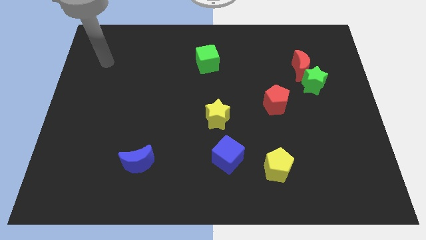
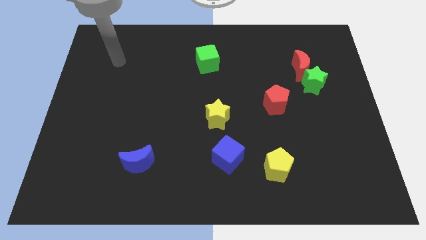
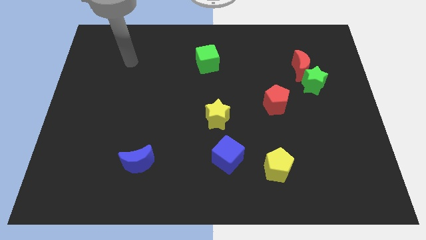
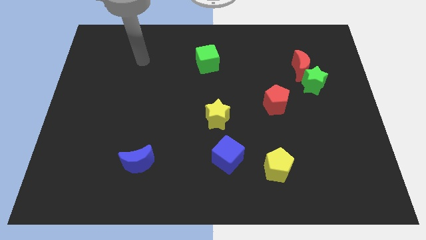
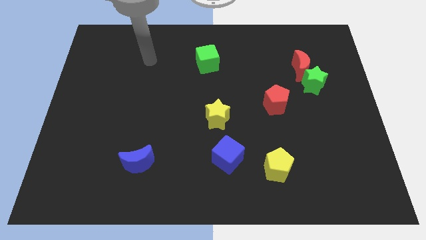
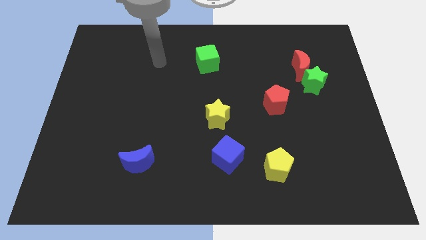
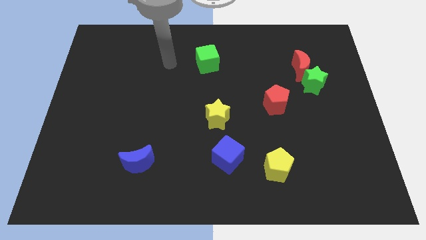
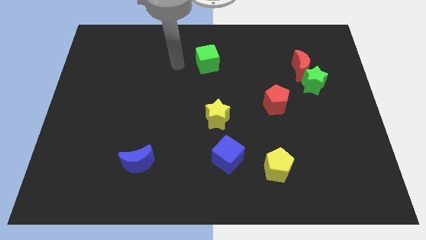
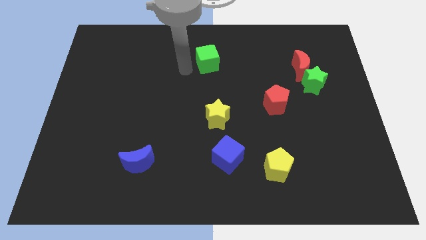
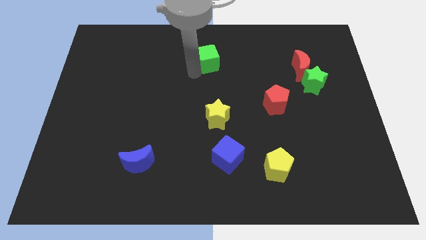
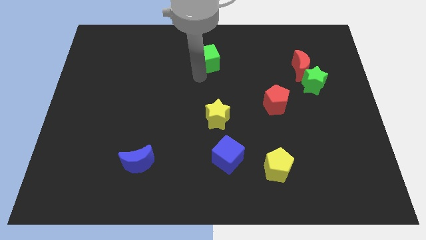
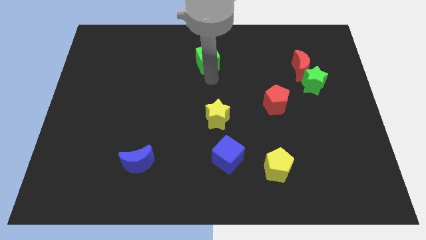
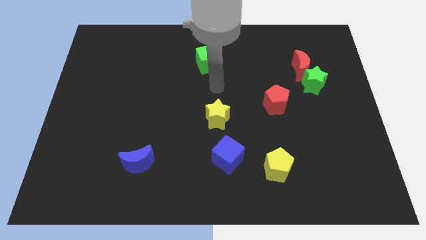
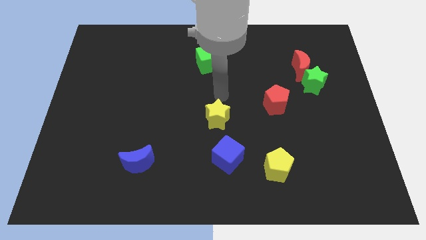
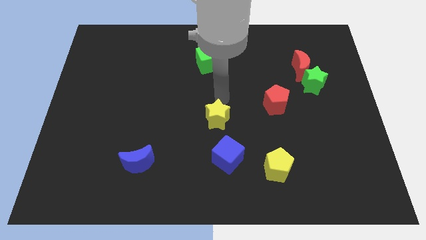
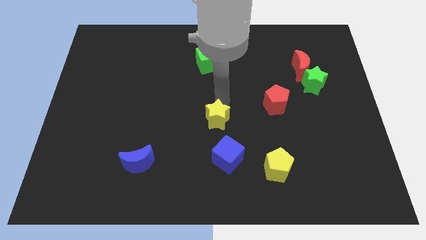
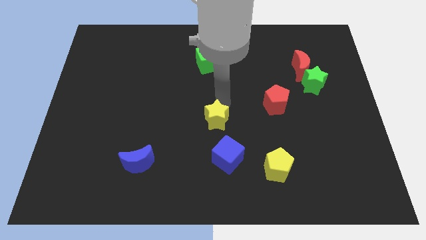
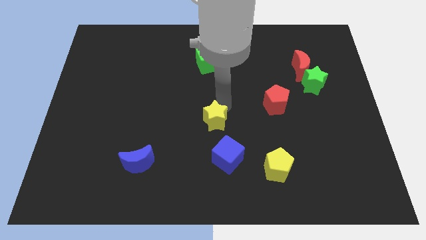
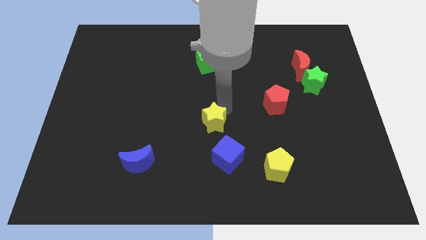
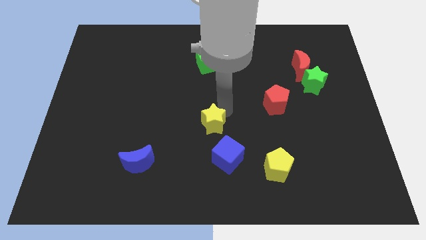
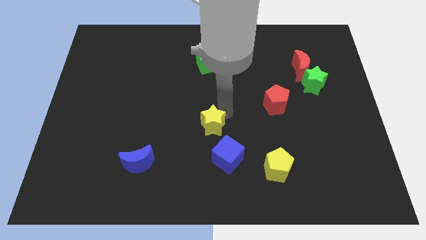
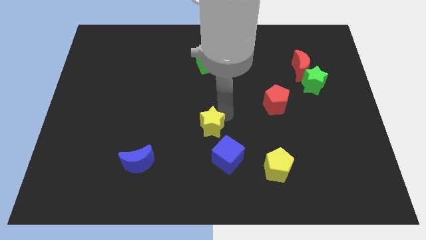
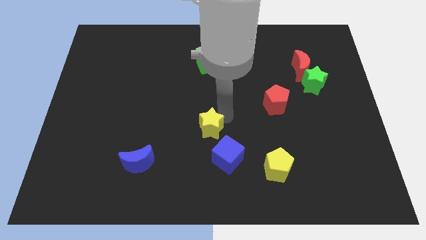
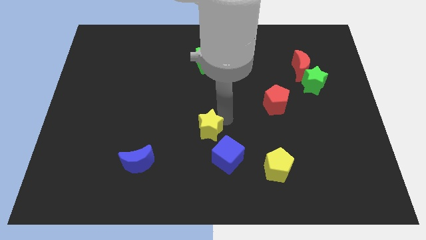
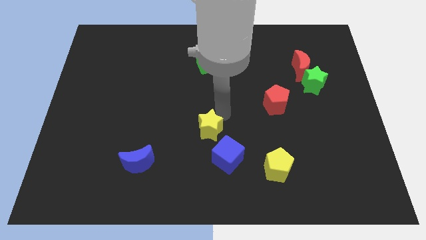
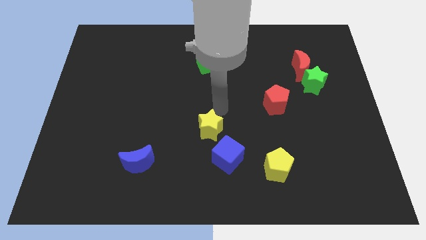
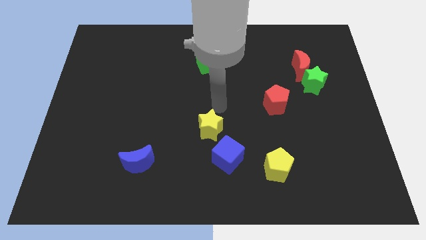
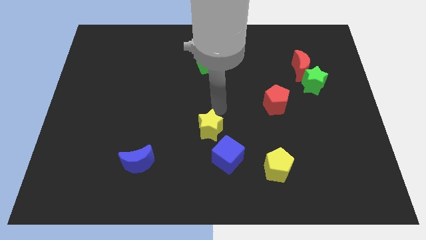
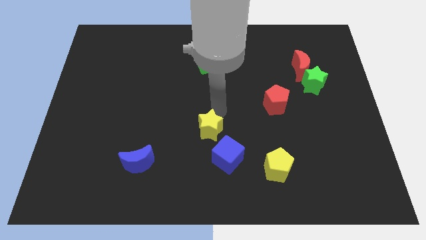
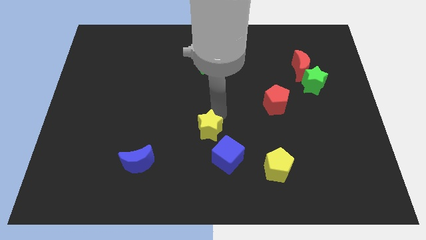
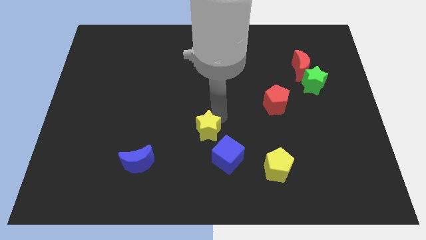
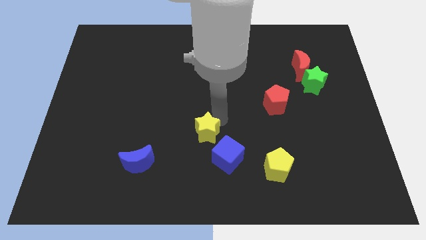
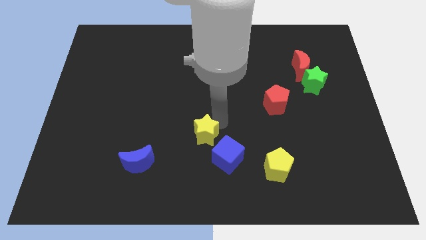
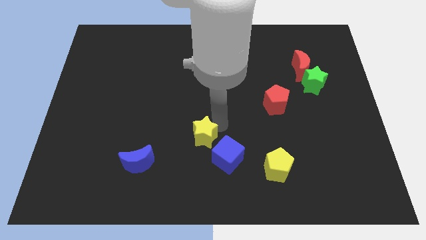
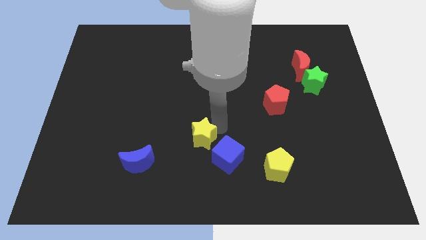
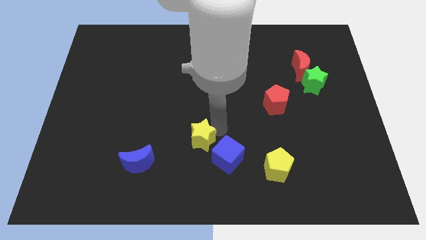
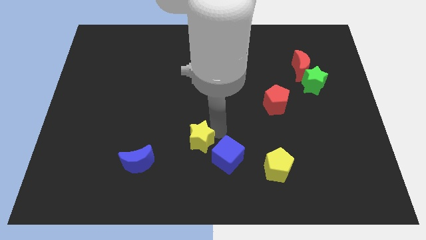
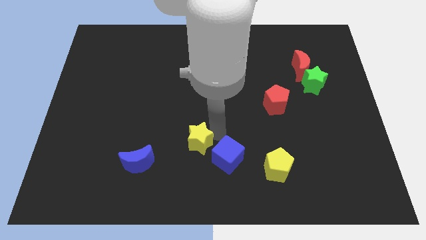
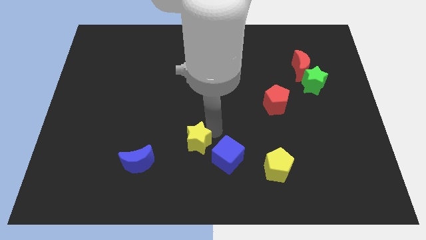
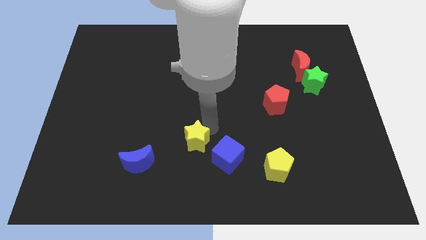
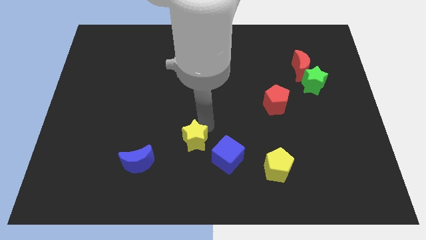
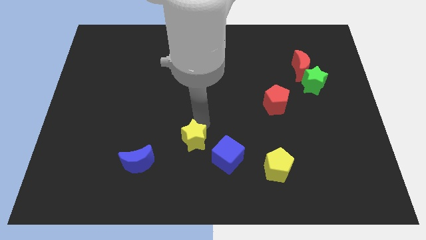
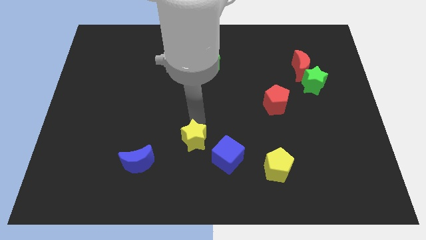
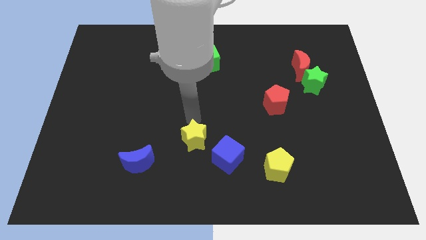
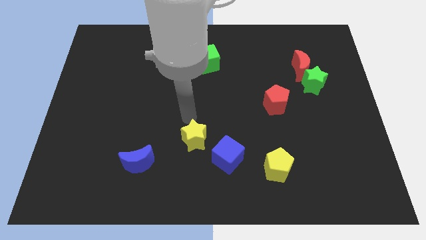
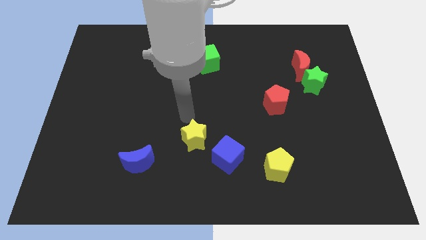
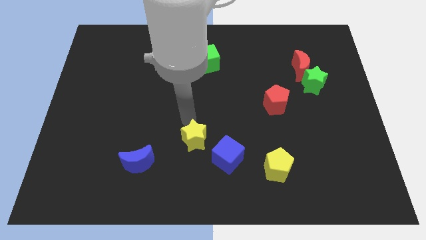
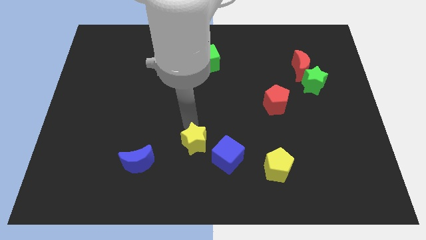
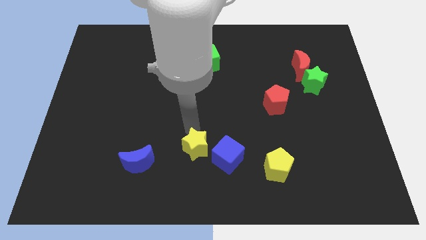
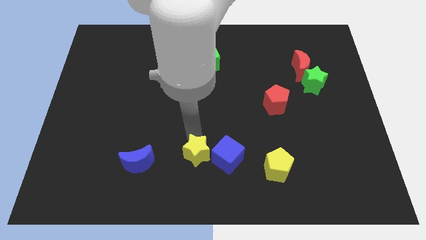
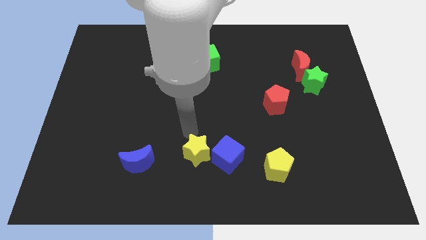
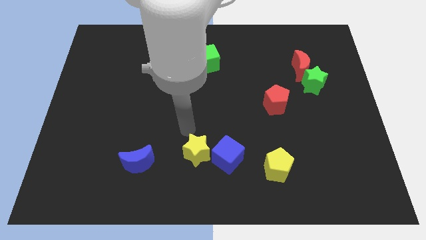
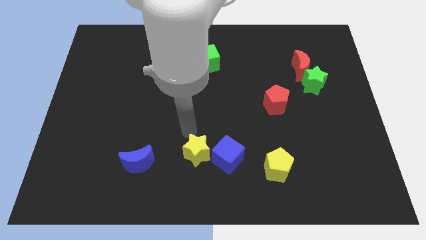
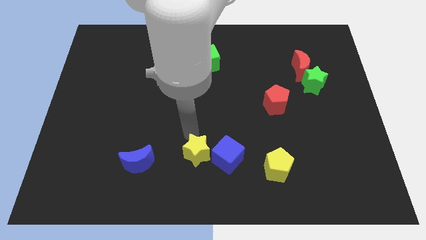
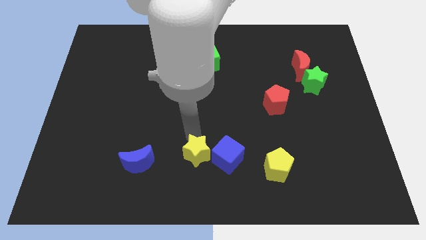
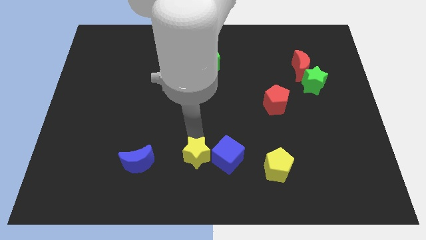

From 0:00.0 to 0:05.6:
put the yellow star to the bottom side

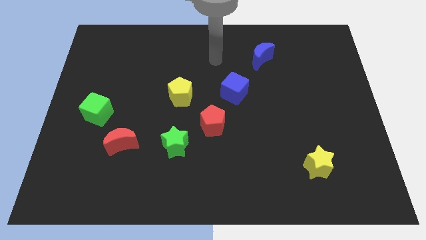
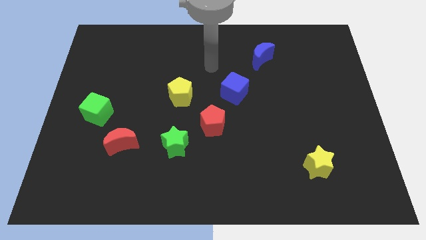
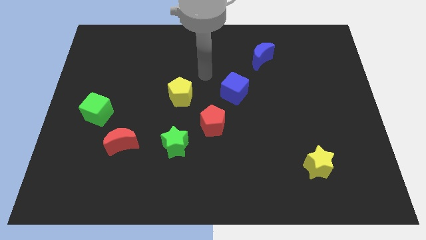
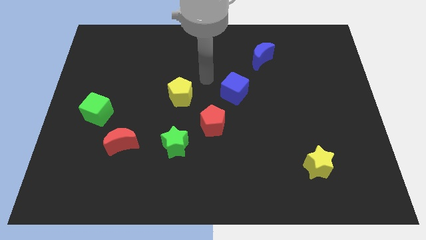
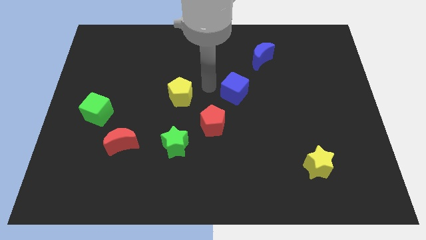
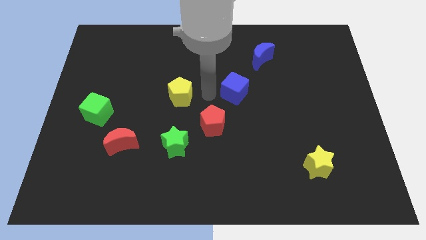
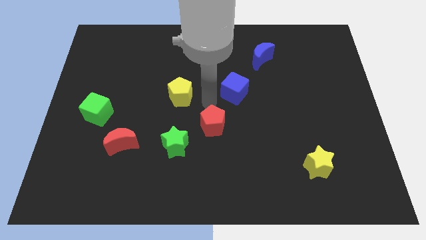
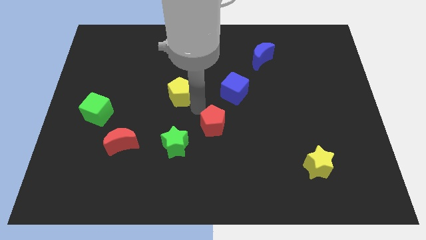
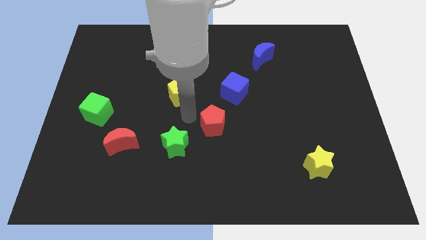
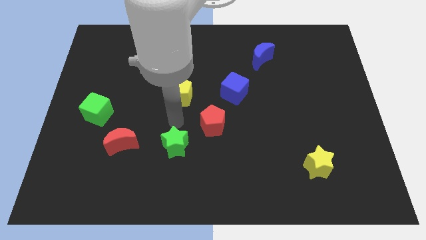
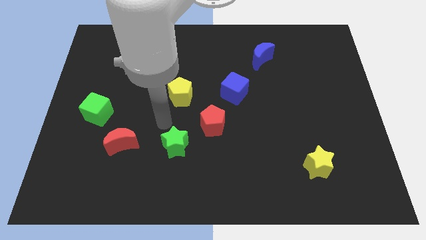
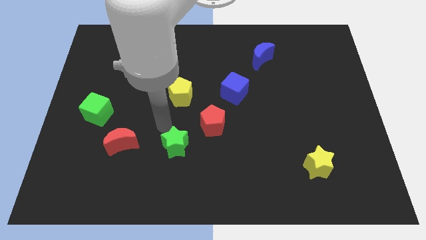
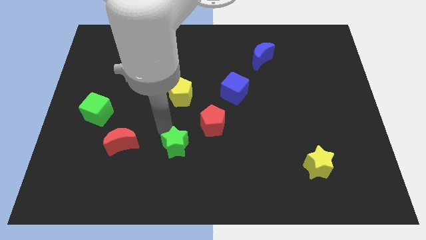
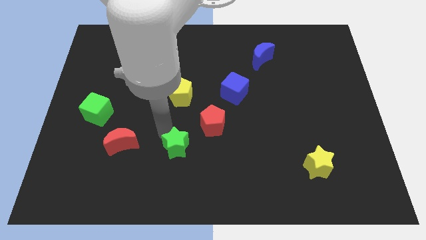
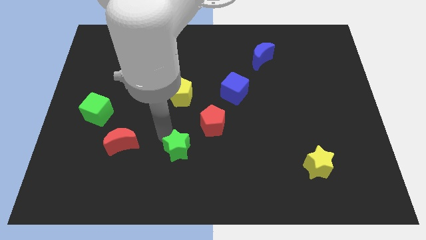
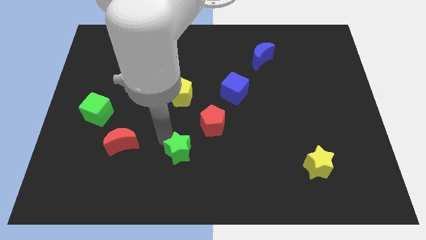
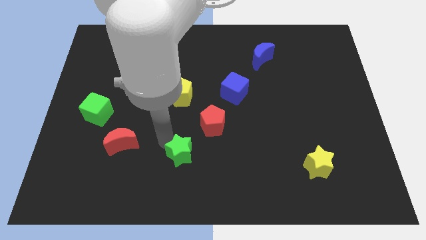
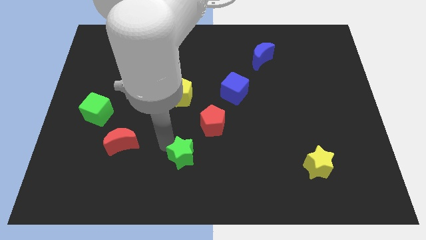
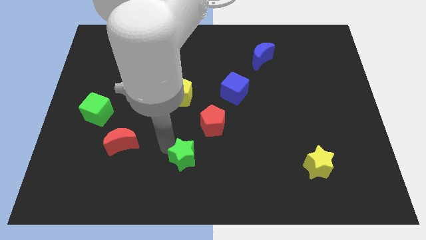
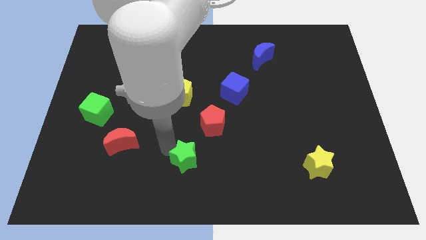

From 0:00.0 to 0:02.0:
slide the green star to the bottom
